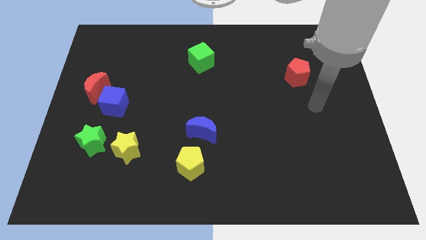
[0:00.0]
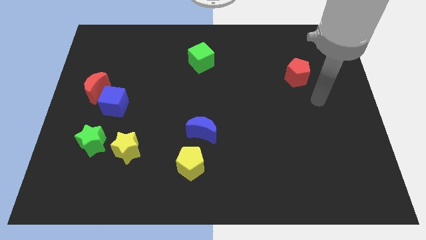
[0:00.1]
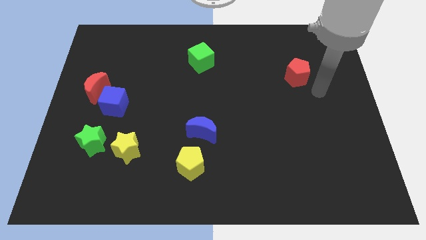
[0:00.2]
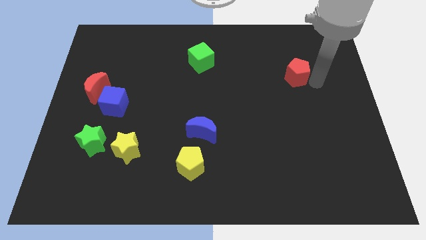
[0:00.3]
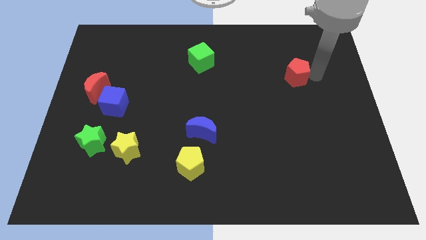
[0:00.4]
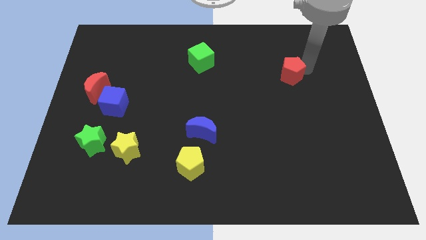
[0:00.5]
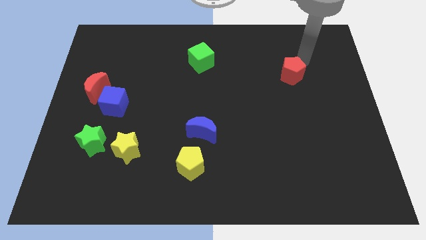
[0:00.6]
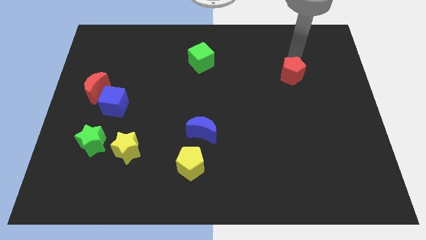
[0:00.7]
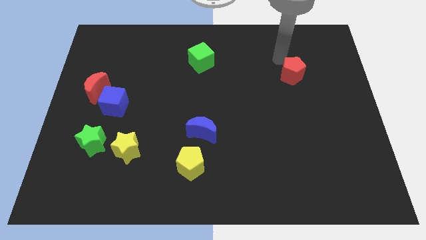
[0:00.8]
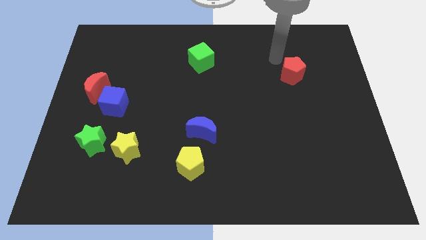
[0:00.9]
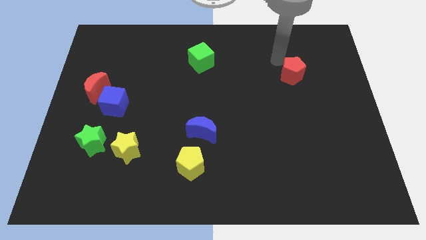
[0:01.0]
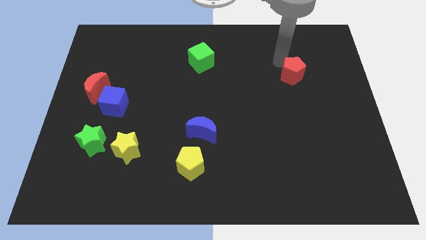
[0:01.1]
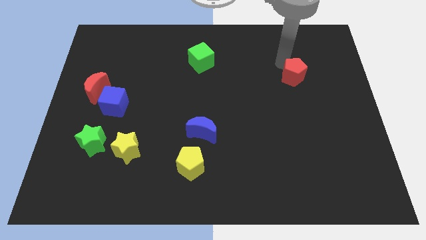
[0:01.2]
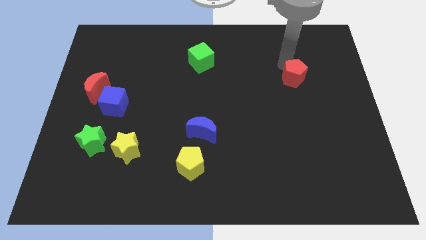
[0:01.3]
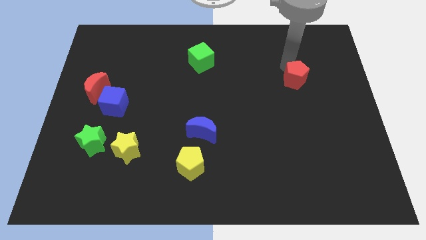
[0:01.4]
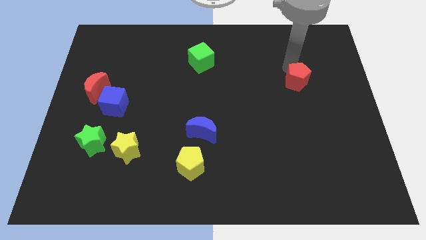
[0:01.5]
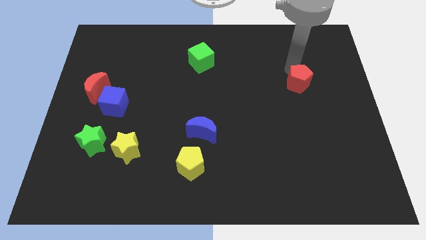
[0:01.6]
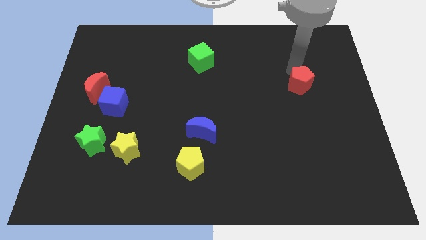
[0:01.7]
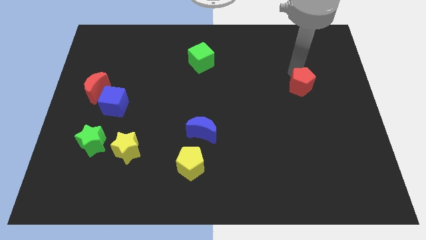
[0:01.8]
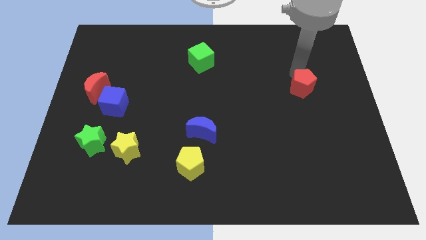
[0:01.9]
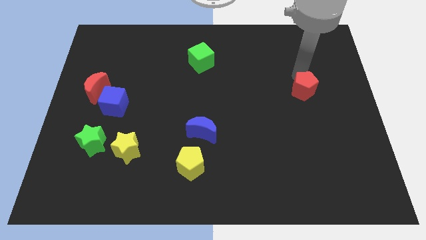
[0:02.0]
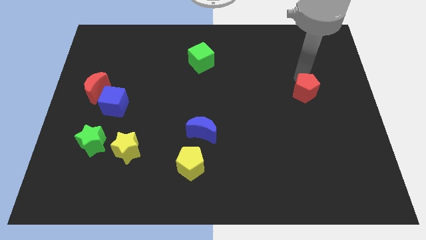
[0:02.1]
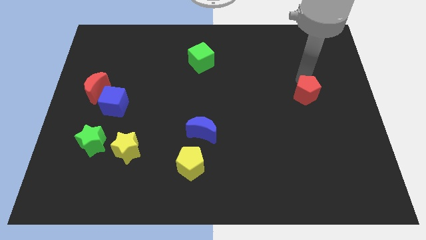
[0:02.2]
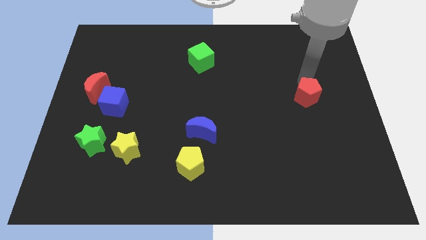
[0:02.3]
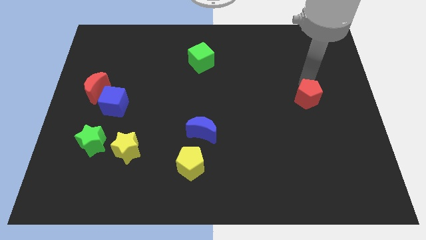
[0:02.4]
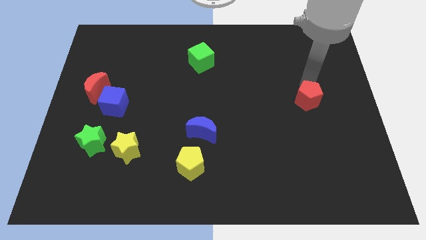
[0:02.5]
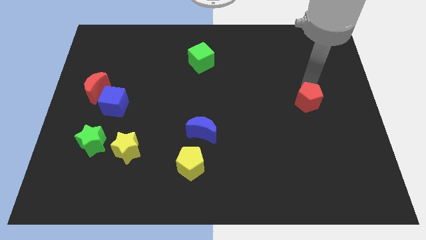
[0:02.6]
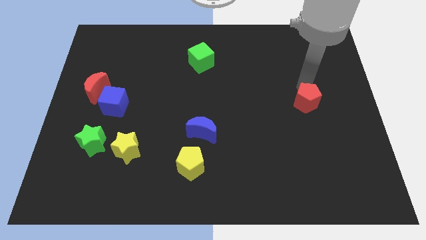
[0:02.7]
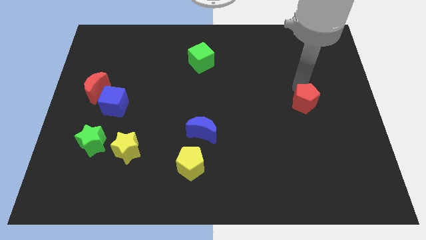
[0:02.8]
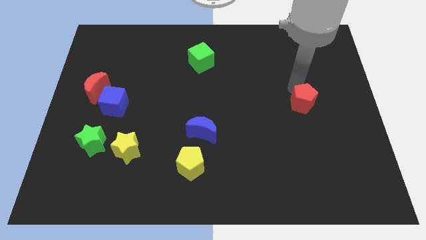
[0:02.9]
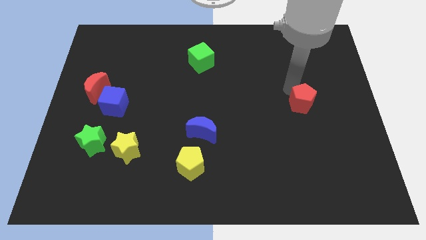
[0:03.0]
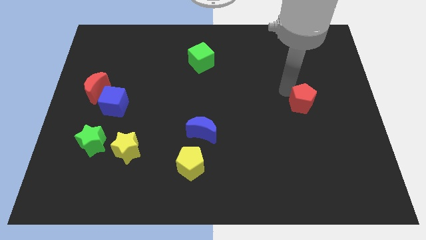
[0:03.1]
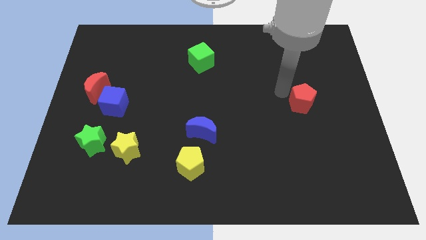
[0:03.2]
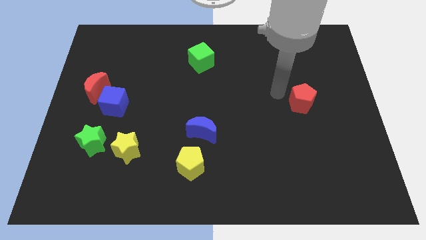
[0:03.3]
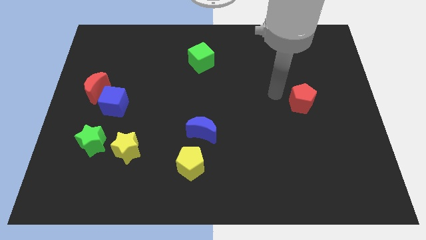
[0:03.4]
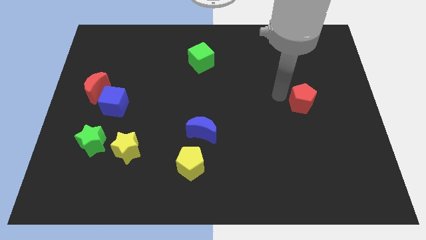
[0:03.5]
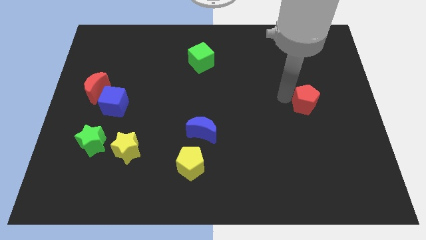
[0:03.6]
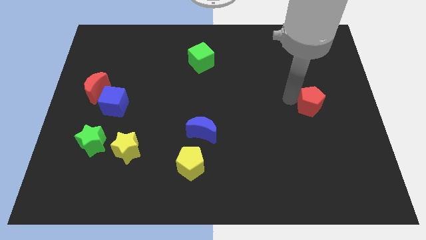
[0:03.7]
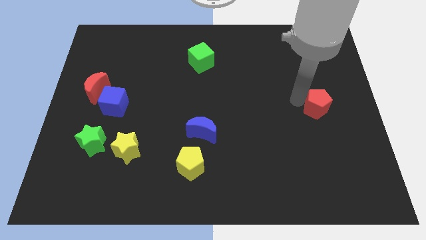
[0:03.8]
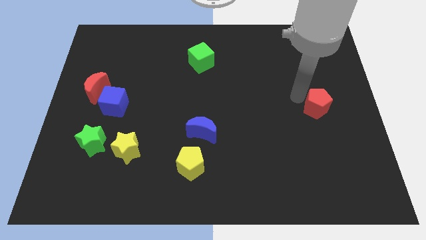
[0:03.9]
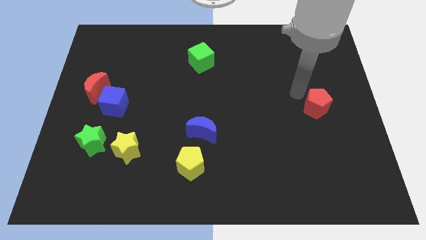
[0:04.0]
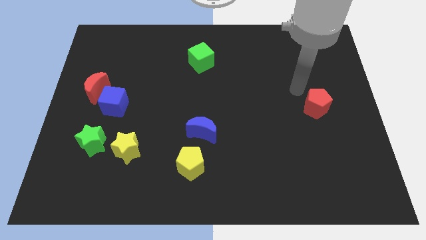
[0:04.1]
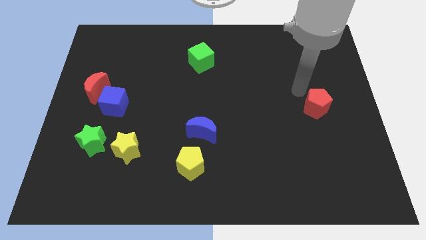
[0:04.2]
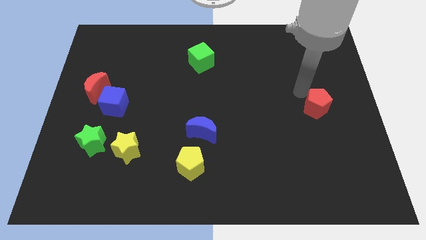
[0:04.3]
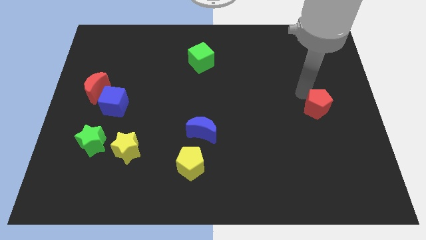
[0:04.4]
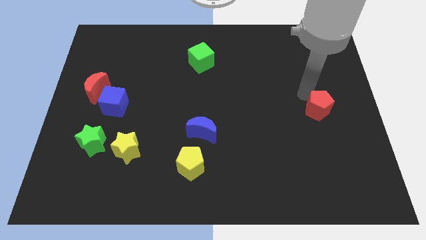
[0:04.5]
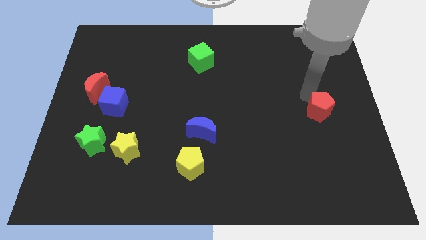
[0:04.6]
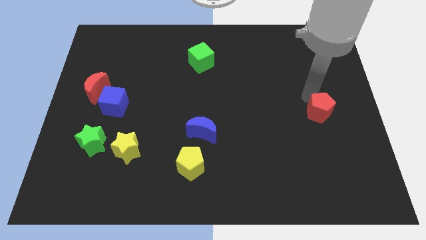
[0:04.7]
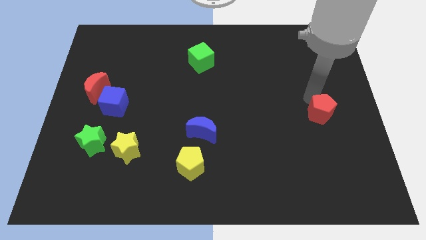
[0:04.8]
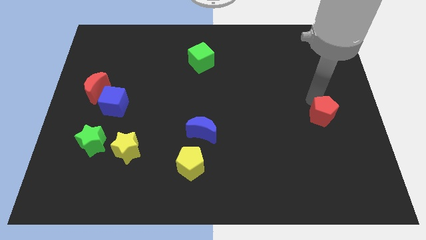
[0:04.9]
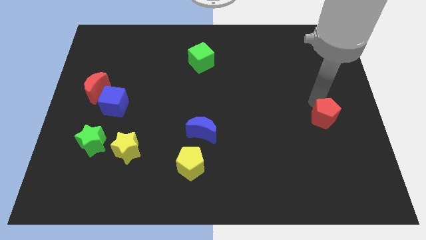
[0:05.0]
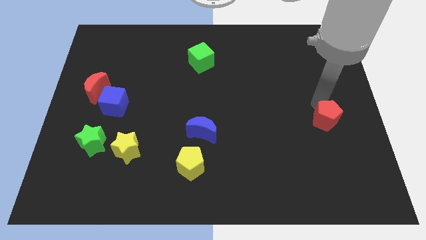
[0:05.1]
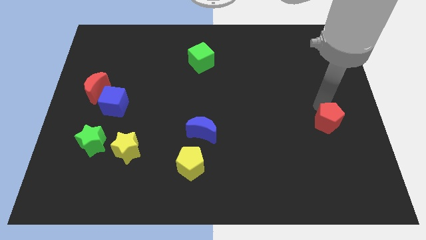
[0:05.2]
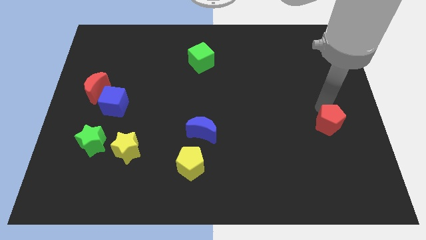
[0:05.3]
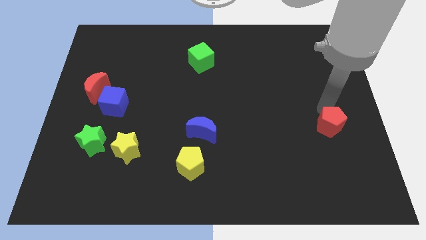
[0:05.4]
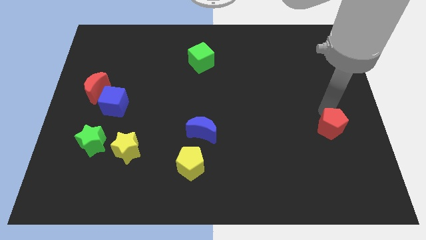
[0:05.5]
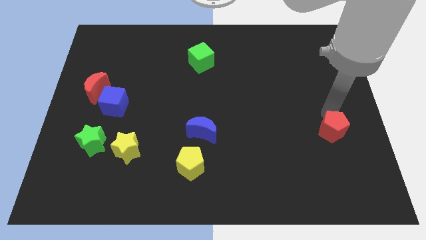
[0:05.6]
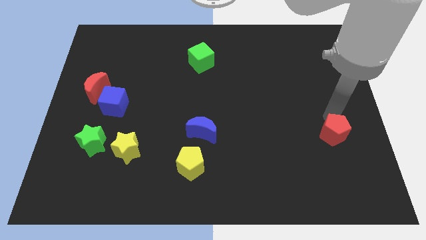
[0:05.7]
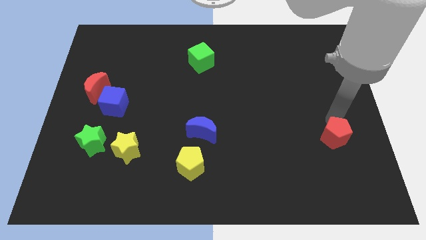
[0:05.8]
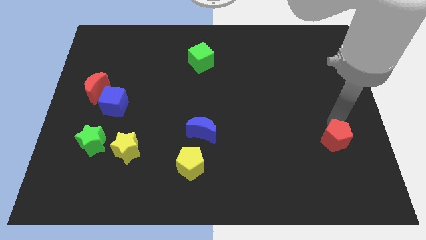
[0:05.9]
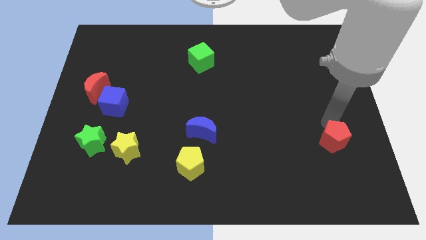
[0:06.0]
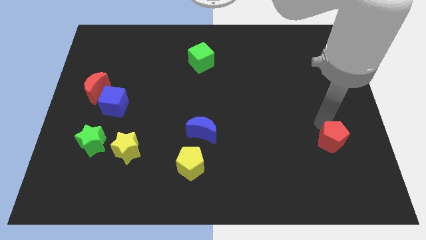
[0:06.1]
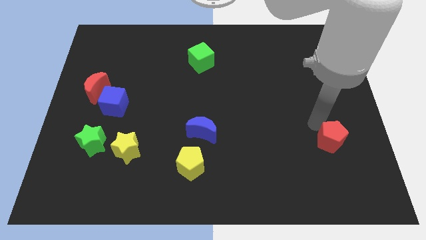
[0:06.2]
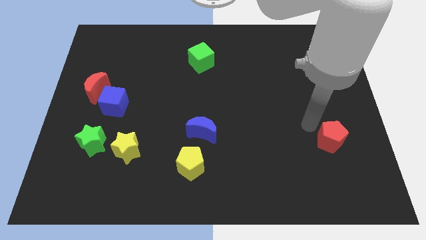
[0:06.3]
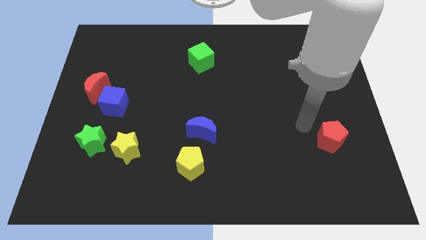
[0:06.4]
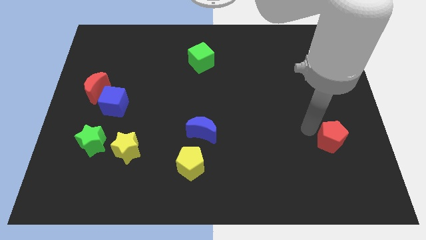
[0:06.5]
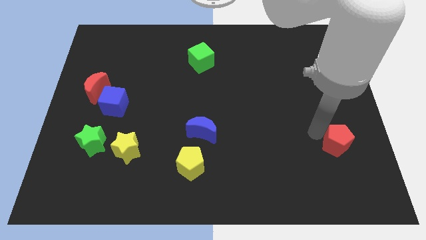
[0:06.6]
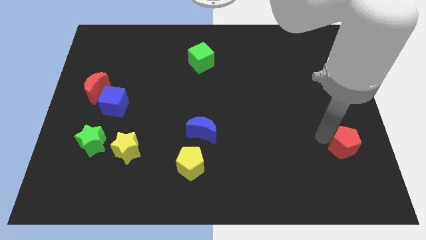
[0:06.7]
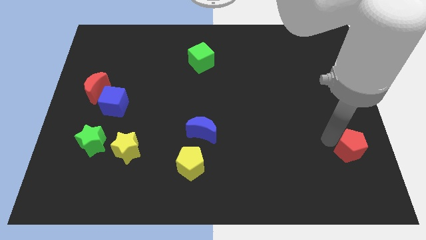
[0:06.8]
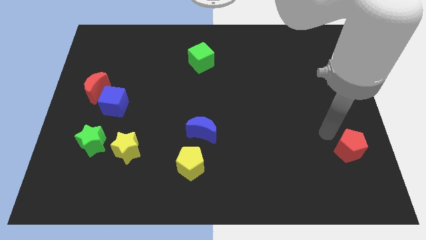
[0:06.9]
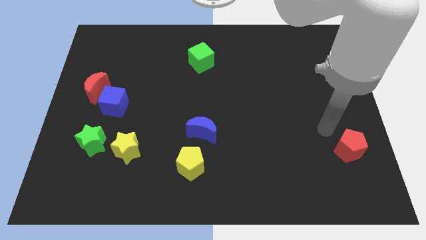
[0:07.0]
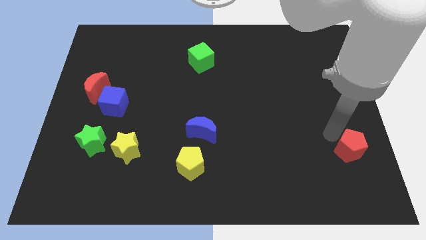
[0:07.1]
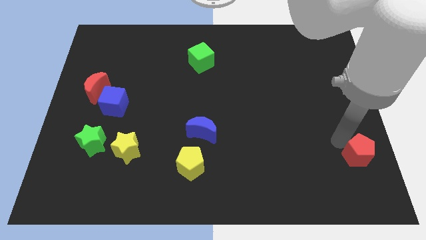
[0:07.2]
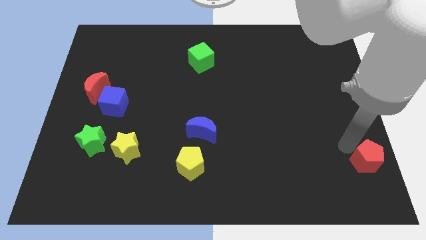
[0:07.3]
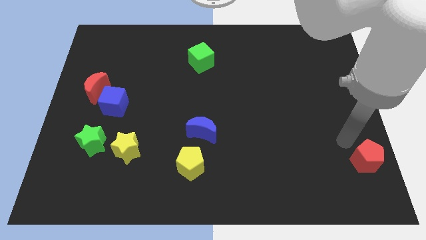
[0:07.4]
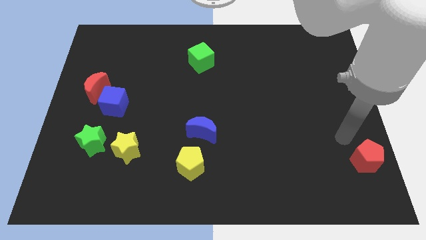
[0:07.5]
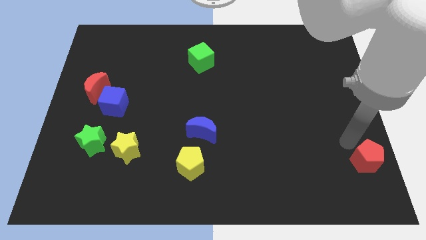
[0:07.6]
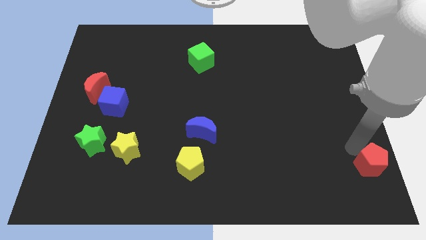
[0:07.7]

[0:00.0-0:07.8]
move the red pentagon to the bottom right of the board
